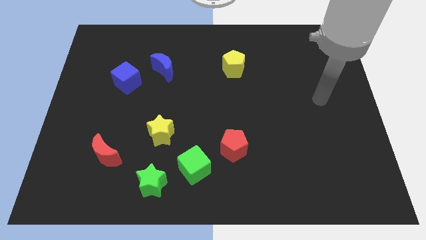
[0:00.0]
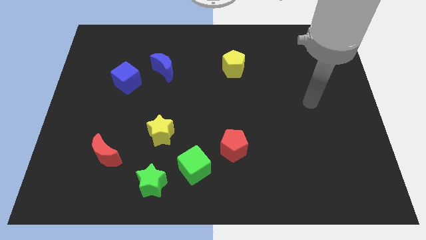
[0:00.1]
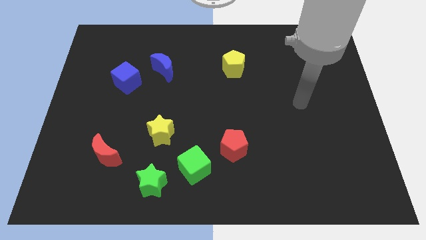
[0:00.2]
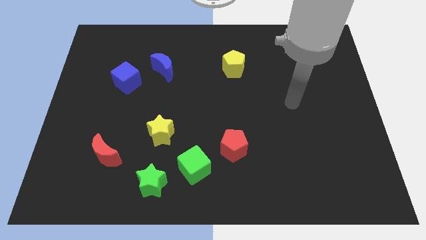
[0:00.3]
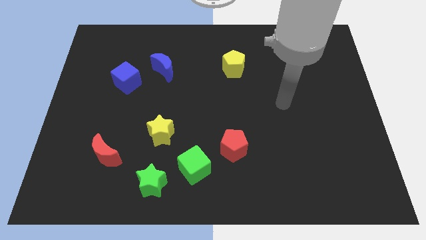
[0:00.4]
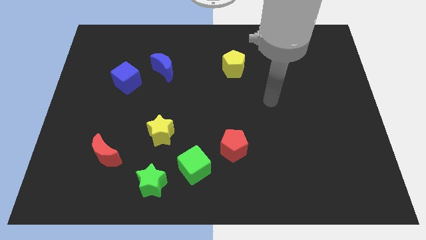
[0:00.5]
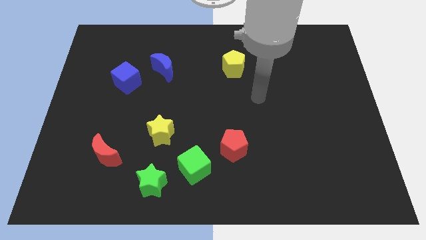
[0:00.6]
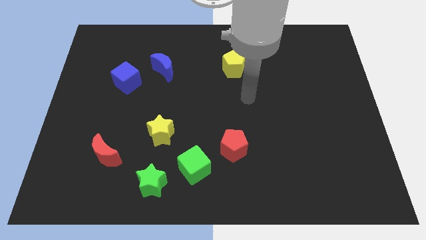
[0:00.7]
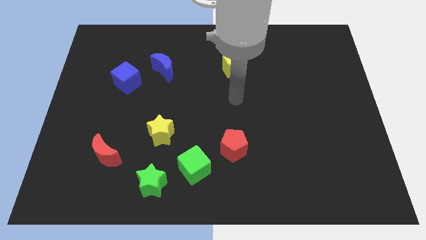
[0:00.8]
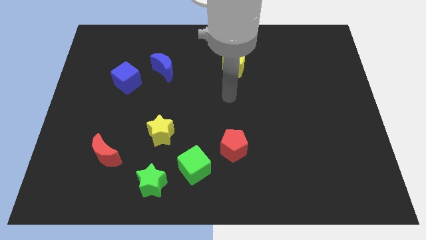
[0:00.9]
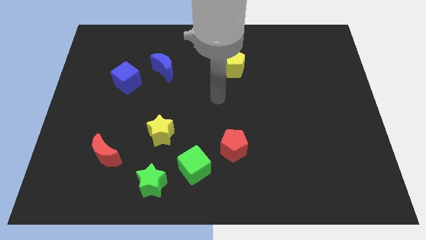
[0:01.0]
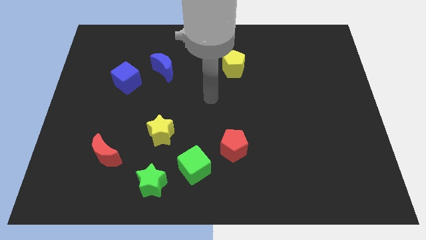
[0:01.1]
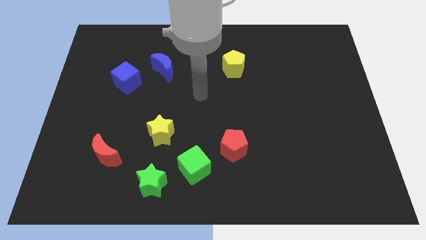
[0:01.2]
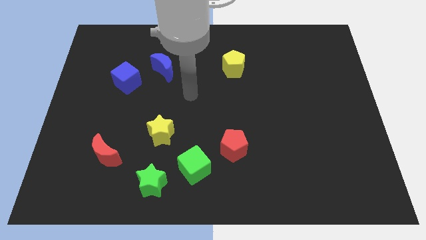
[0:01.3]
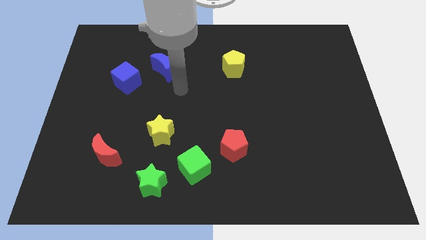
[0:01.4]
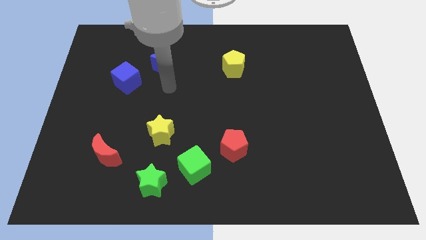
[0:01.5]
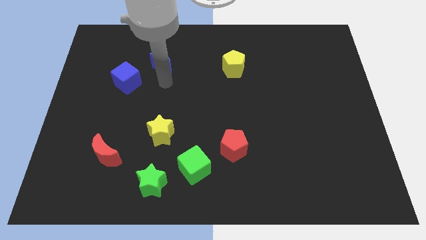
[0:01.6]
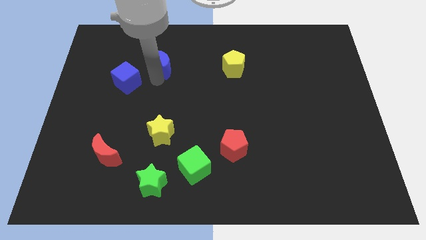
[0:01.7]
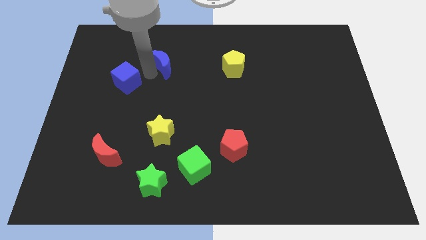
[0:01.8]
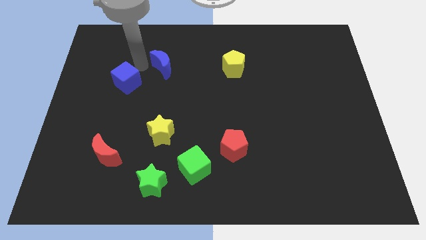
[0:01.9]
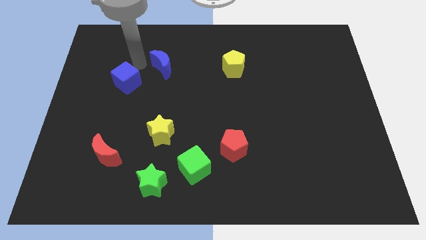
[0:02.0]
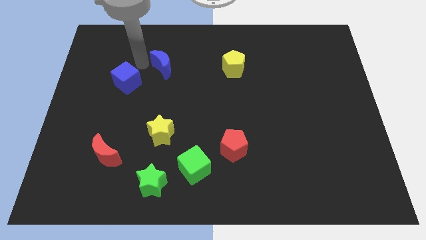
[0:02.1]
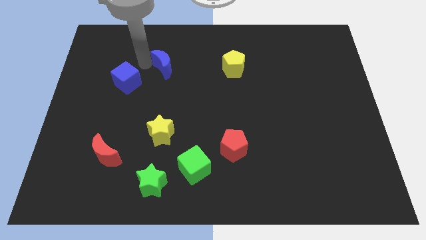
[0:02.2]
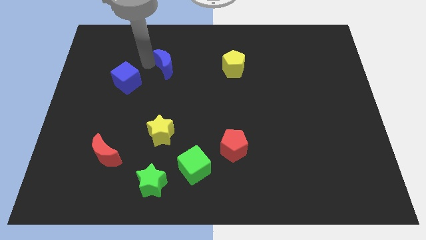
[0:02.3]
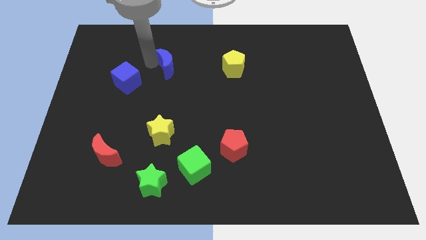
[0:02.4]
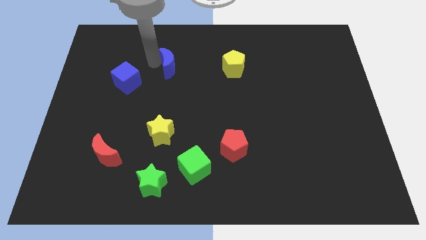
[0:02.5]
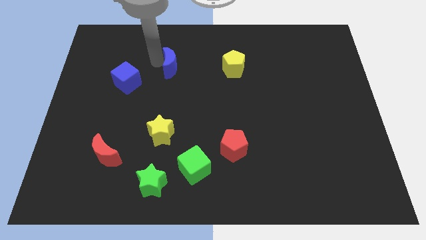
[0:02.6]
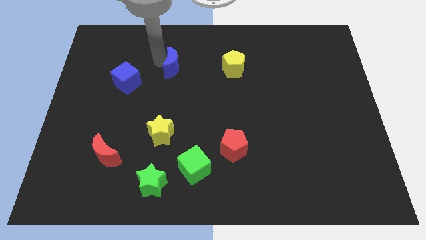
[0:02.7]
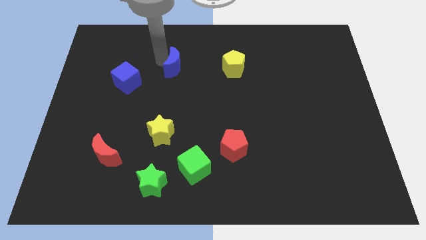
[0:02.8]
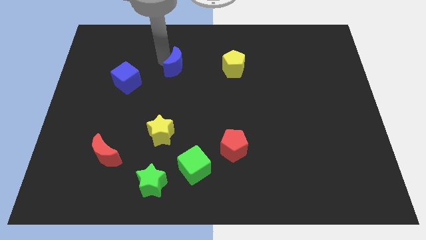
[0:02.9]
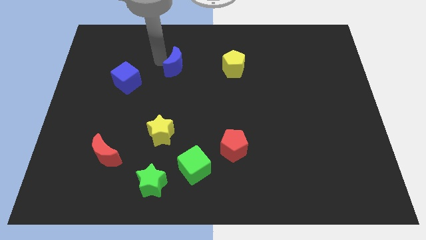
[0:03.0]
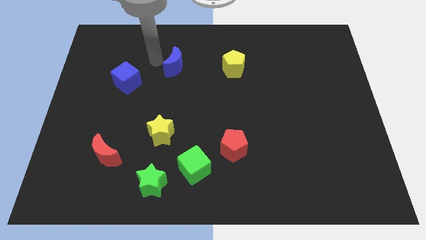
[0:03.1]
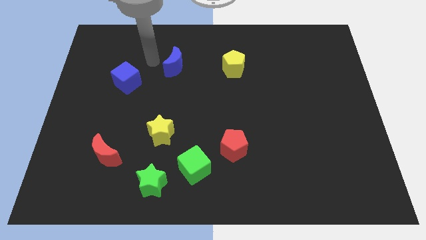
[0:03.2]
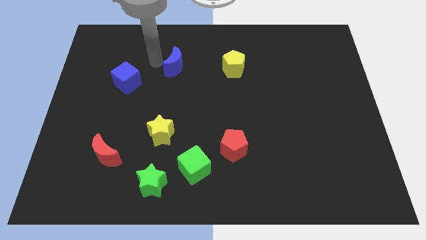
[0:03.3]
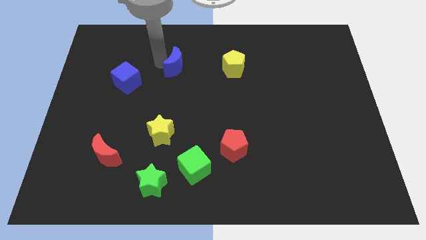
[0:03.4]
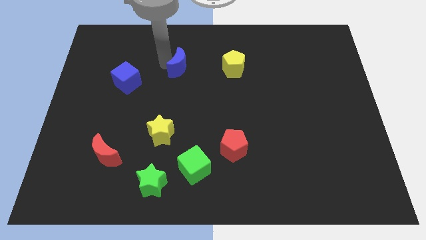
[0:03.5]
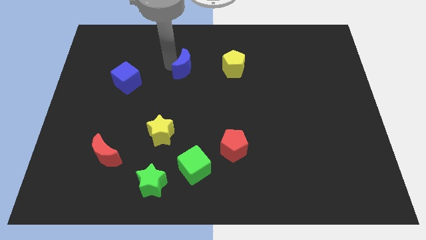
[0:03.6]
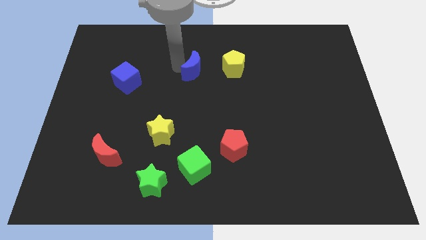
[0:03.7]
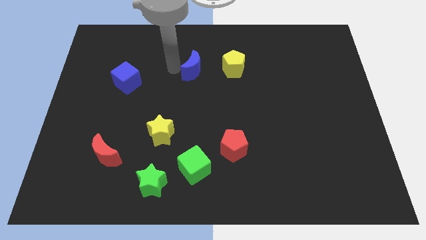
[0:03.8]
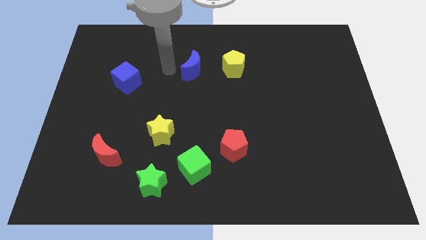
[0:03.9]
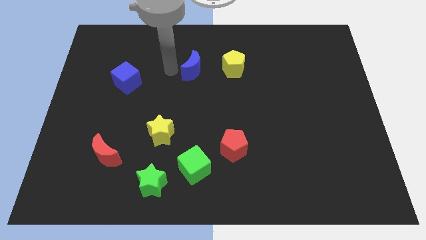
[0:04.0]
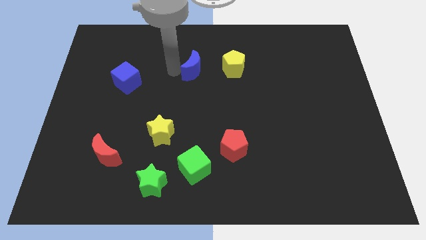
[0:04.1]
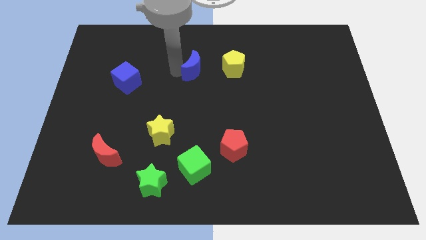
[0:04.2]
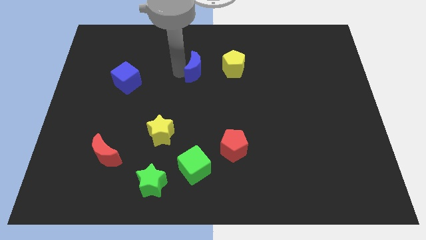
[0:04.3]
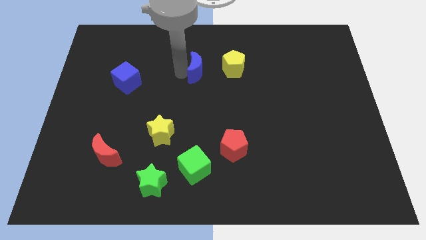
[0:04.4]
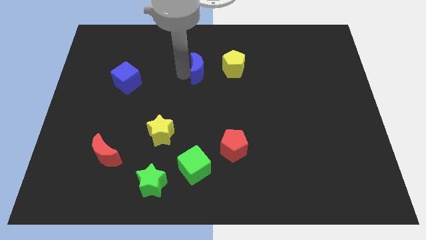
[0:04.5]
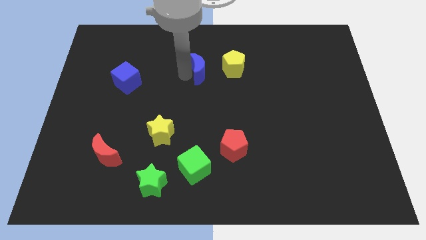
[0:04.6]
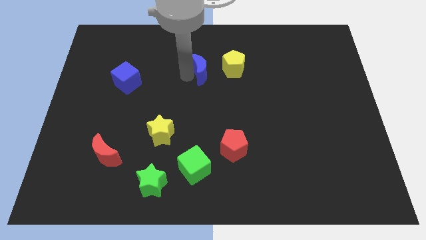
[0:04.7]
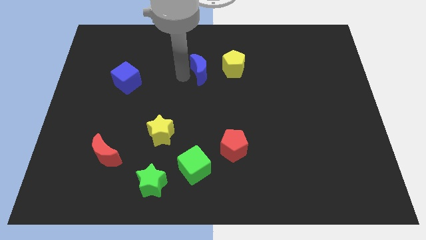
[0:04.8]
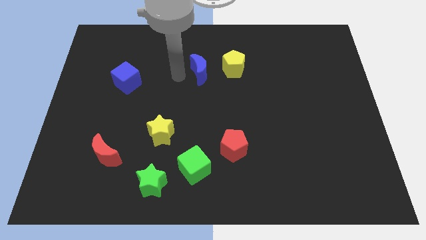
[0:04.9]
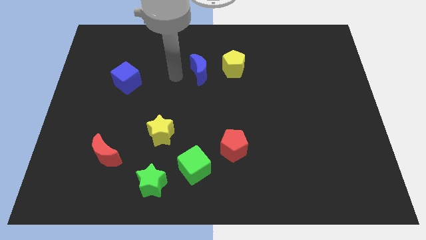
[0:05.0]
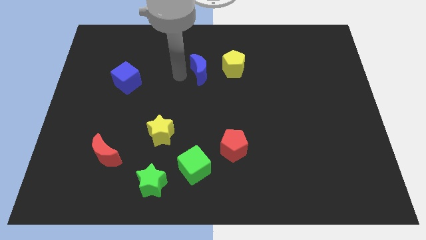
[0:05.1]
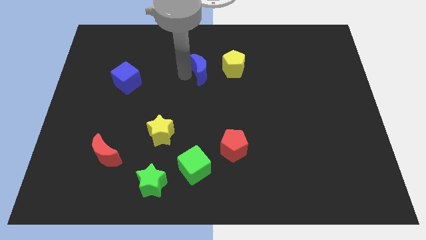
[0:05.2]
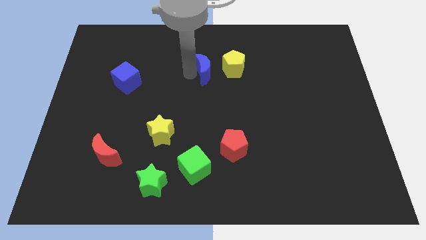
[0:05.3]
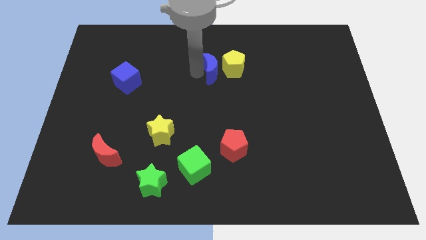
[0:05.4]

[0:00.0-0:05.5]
push the blue moon close to the yellow pentagon

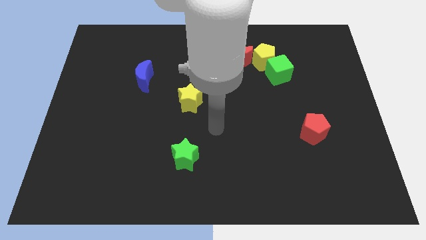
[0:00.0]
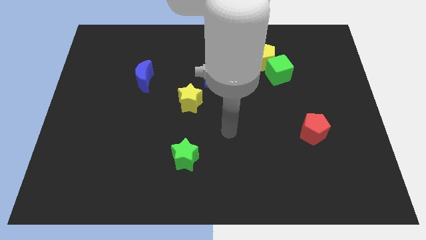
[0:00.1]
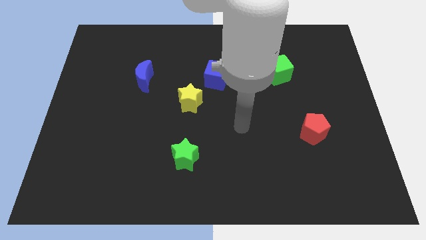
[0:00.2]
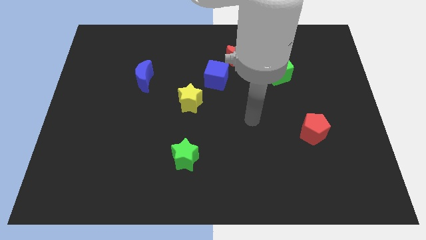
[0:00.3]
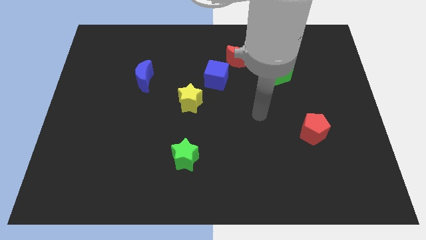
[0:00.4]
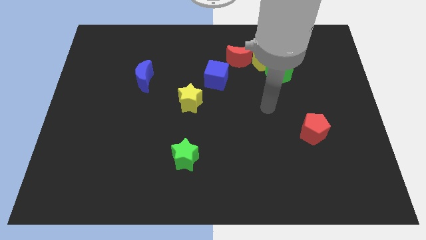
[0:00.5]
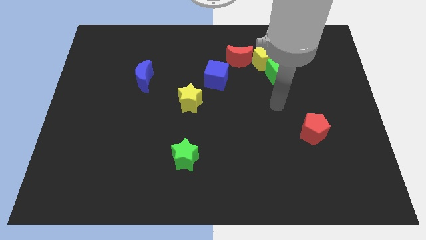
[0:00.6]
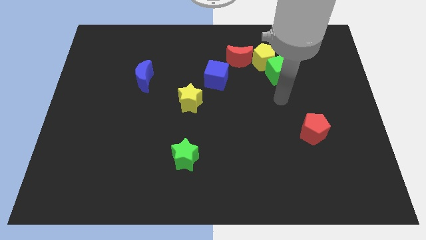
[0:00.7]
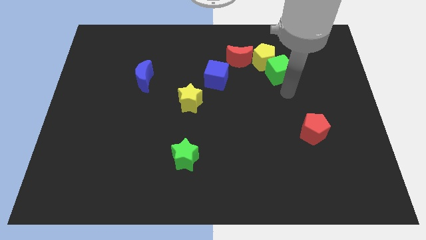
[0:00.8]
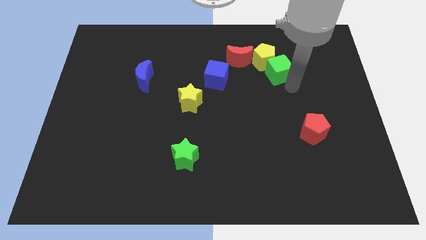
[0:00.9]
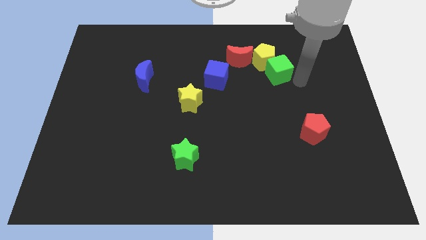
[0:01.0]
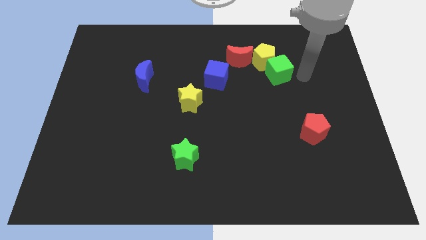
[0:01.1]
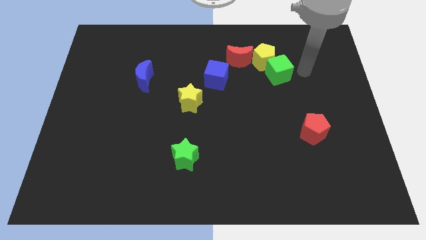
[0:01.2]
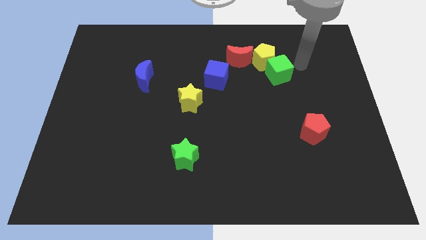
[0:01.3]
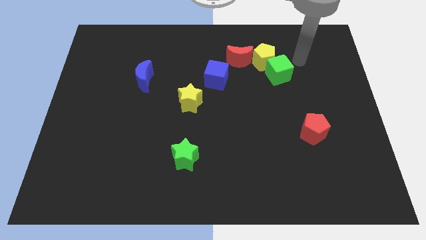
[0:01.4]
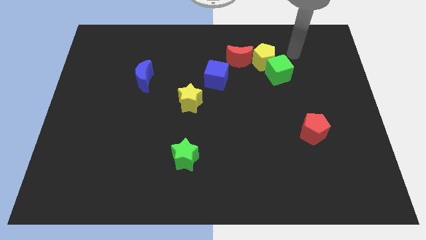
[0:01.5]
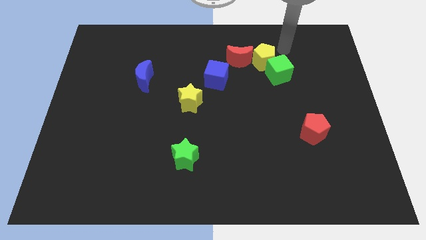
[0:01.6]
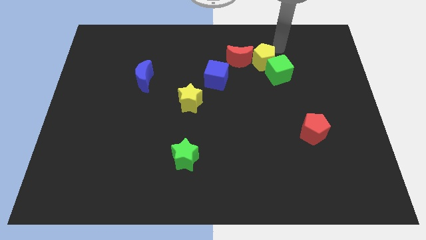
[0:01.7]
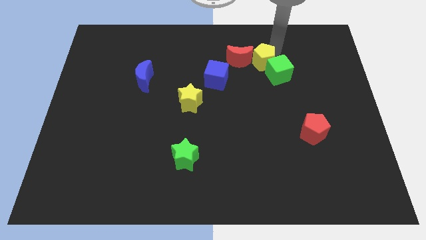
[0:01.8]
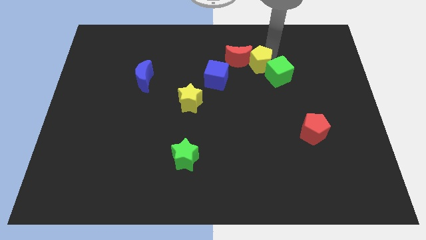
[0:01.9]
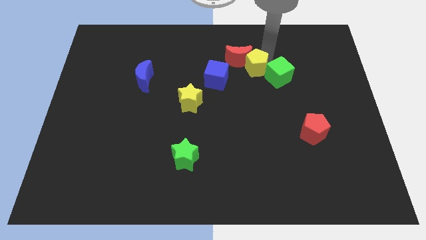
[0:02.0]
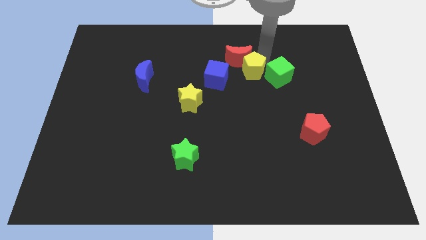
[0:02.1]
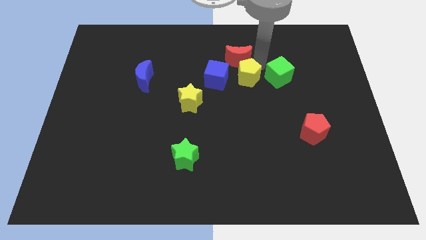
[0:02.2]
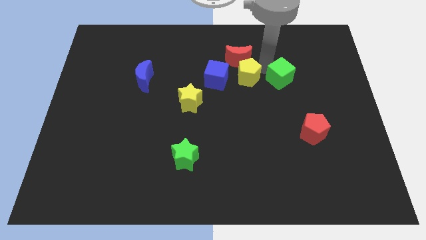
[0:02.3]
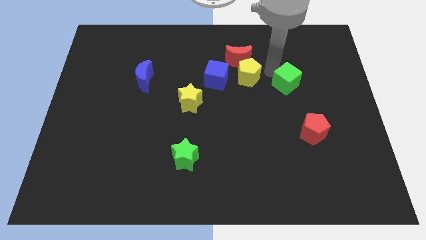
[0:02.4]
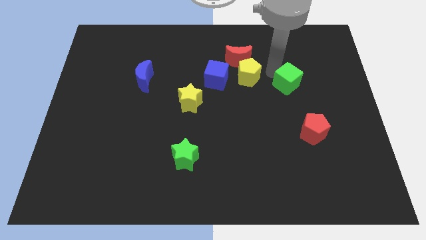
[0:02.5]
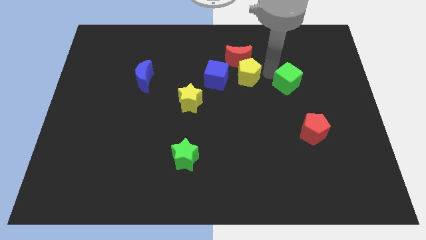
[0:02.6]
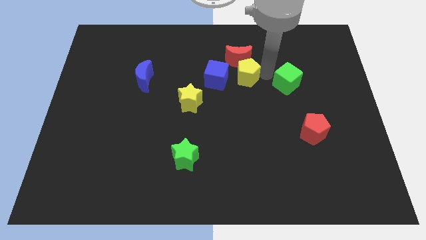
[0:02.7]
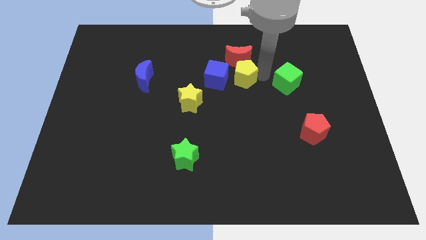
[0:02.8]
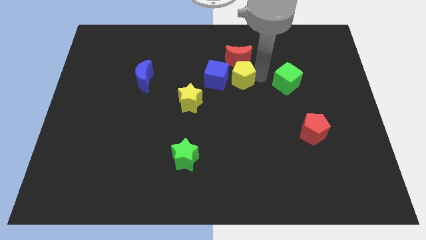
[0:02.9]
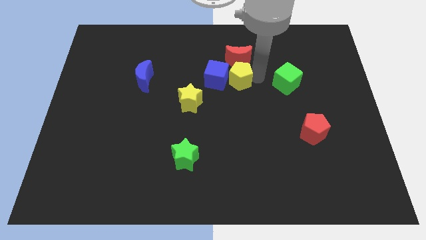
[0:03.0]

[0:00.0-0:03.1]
slide the yellow pentagon close to the blue cube
